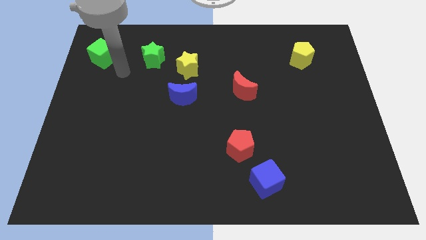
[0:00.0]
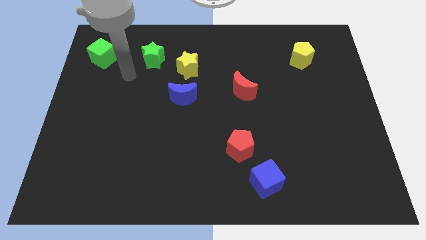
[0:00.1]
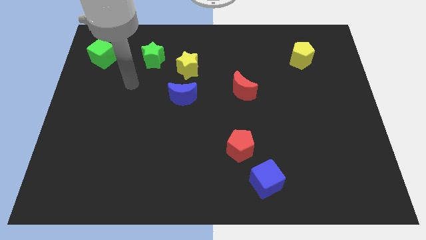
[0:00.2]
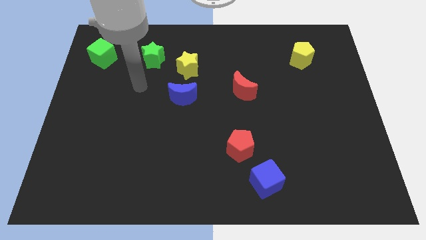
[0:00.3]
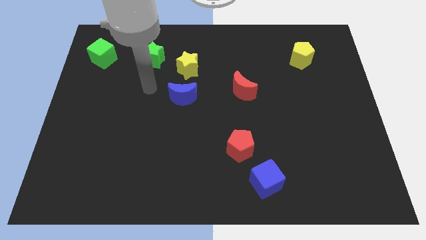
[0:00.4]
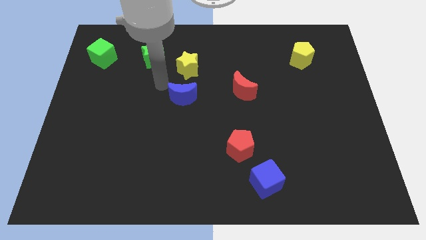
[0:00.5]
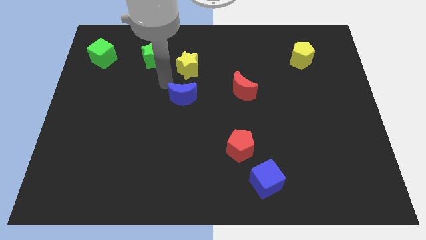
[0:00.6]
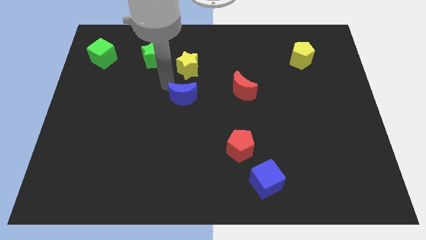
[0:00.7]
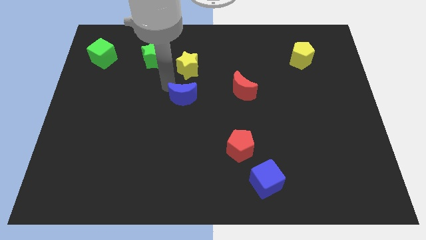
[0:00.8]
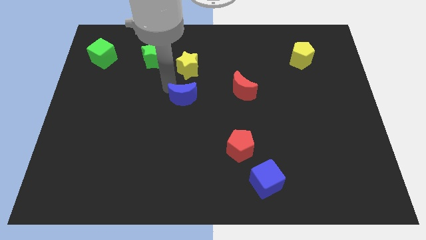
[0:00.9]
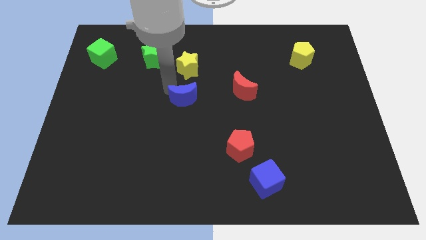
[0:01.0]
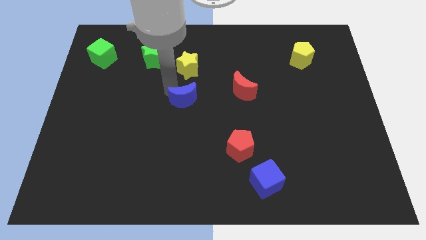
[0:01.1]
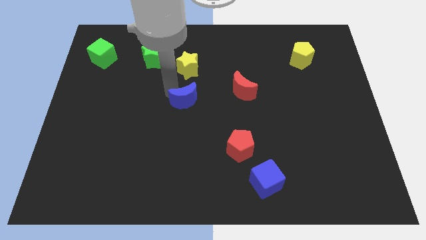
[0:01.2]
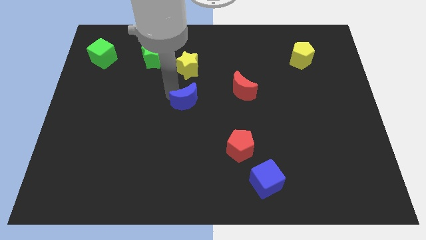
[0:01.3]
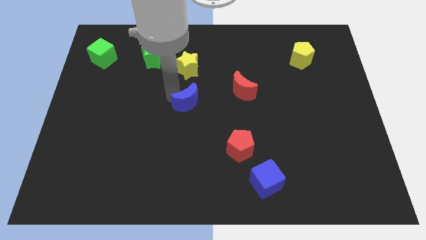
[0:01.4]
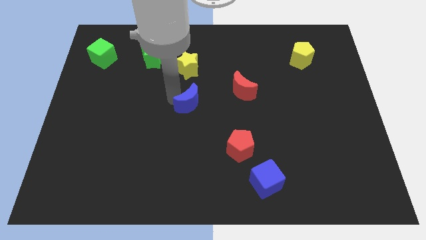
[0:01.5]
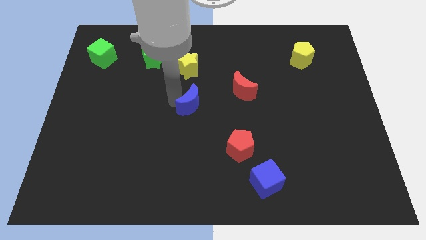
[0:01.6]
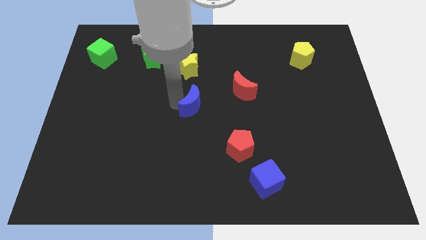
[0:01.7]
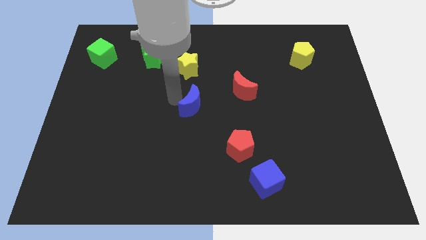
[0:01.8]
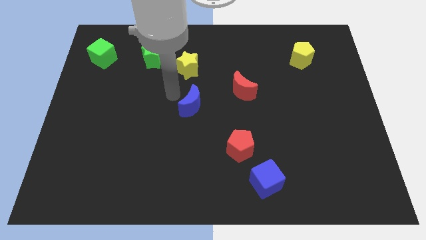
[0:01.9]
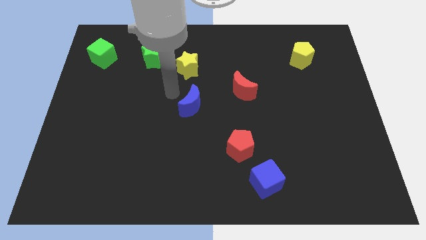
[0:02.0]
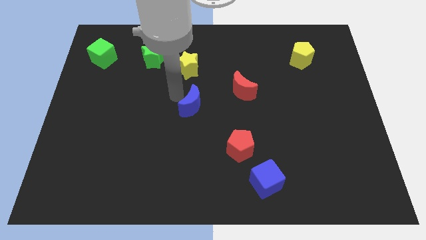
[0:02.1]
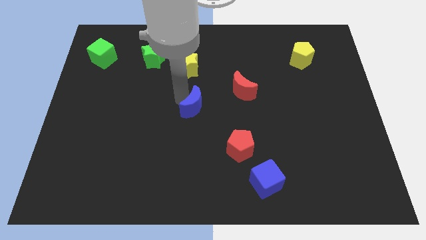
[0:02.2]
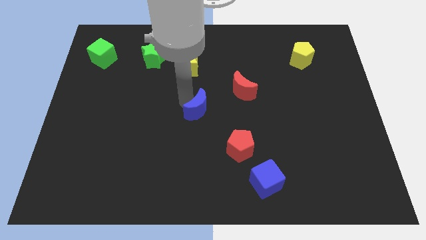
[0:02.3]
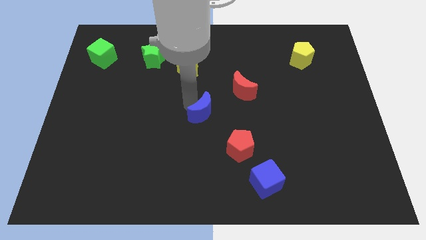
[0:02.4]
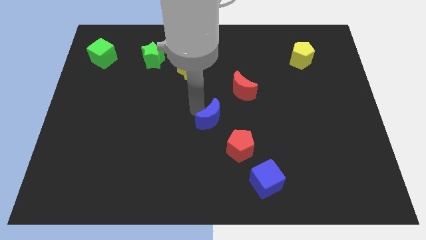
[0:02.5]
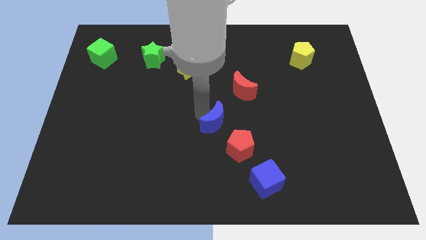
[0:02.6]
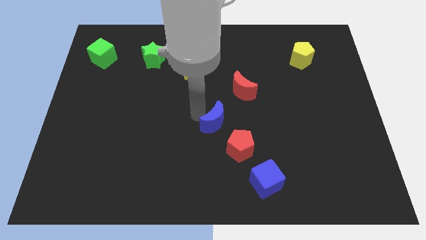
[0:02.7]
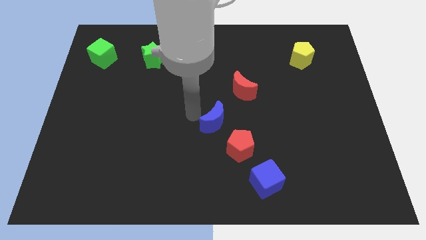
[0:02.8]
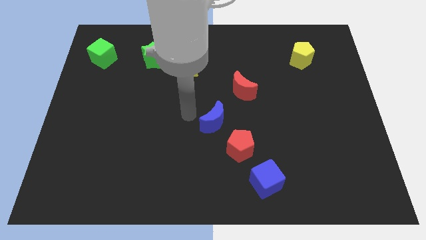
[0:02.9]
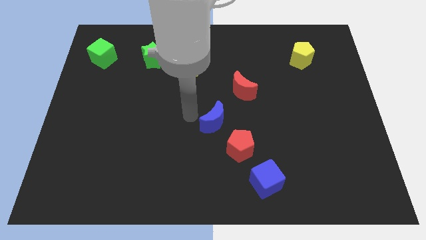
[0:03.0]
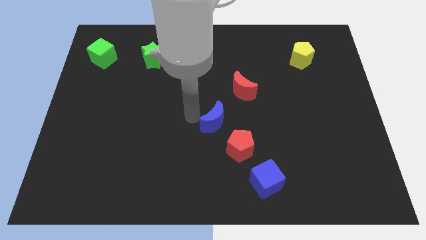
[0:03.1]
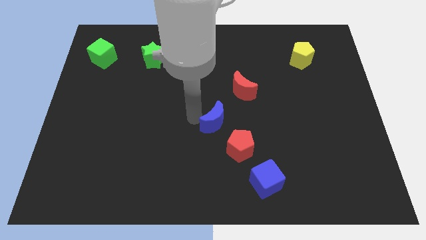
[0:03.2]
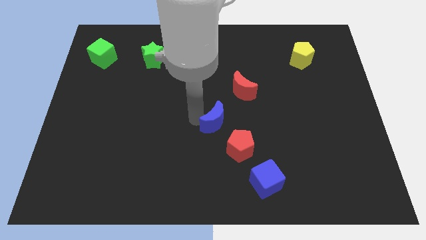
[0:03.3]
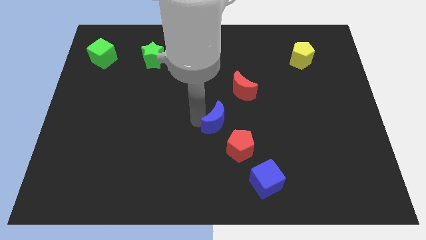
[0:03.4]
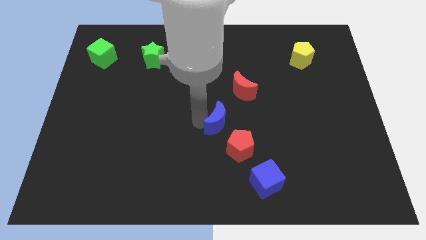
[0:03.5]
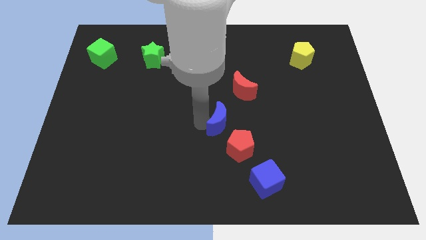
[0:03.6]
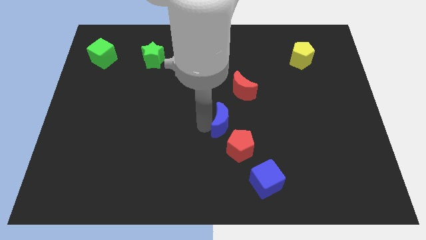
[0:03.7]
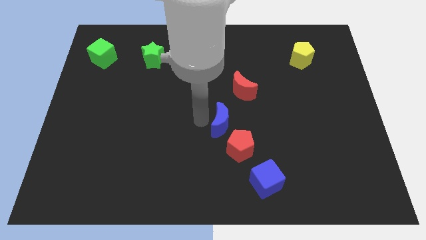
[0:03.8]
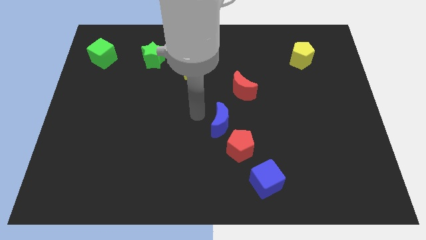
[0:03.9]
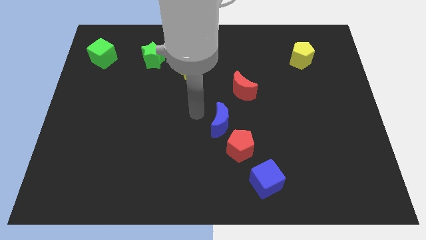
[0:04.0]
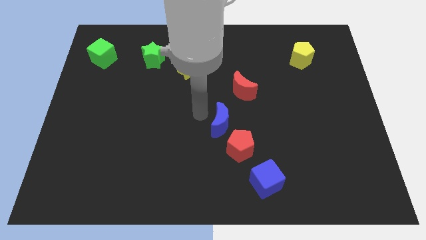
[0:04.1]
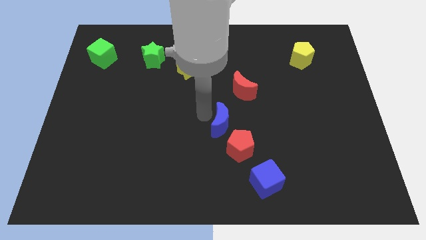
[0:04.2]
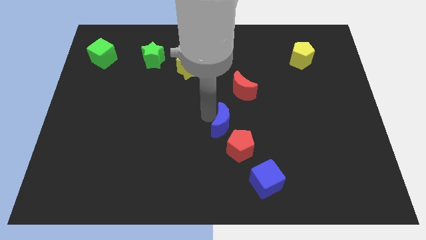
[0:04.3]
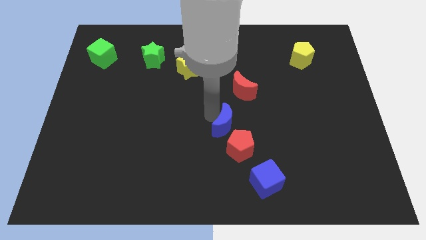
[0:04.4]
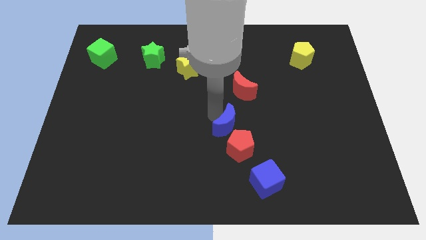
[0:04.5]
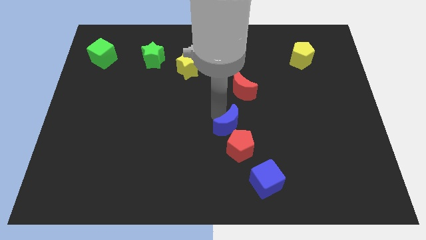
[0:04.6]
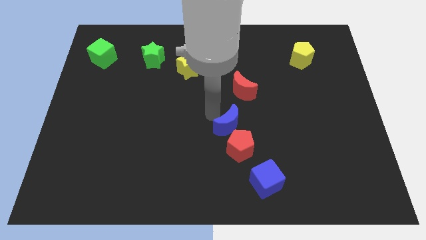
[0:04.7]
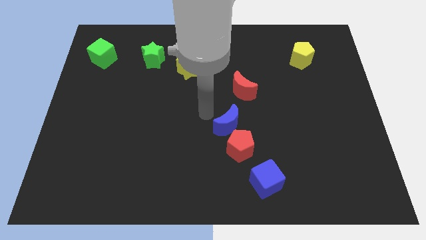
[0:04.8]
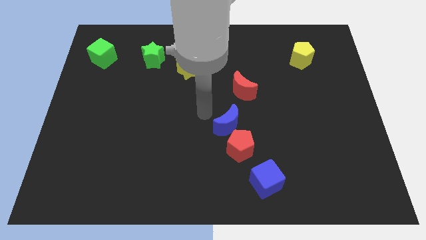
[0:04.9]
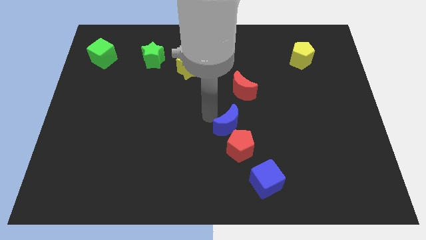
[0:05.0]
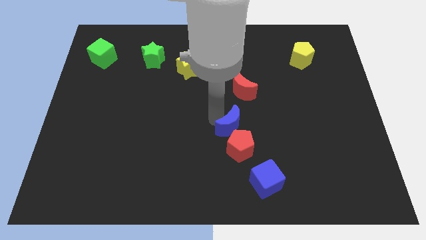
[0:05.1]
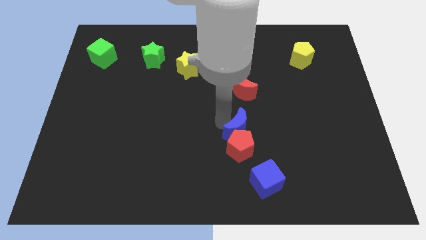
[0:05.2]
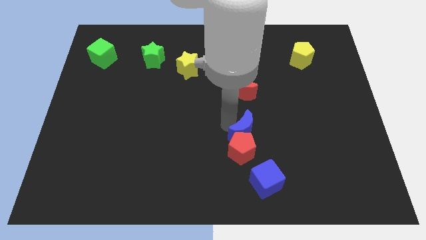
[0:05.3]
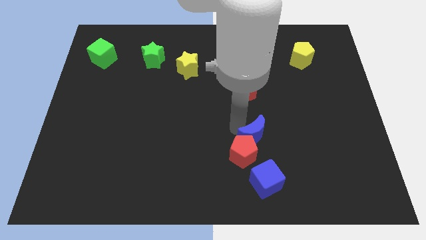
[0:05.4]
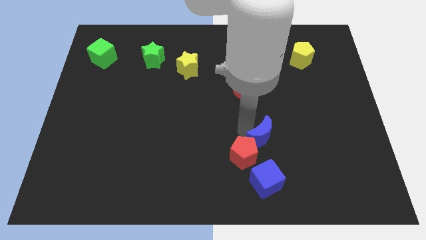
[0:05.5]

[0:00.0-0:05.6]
move the blue moon diagonally downwards and to the right

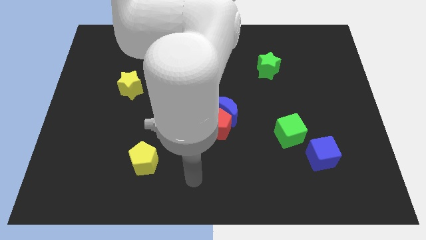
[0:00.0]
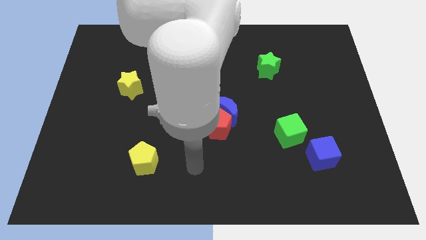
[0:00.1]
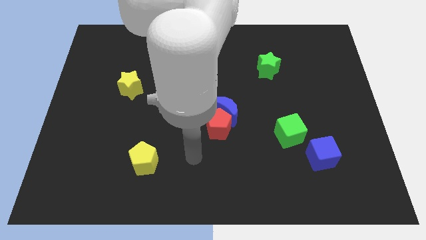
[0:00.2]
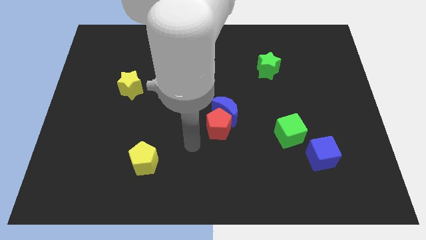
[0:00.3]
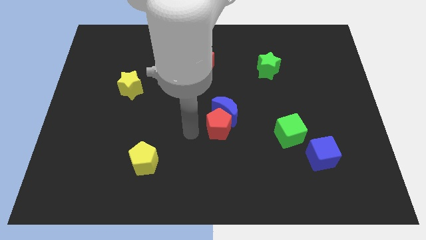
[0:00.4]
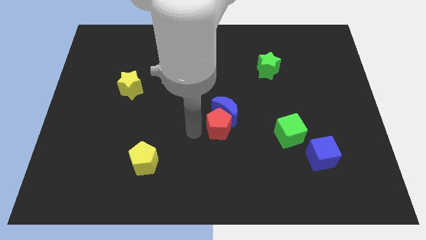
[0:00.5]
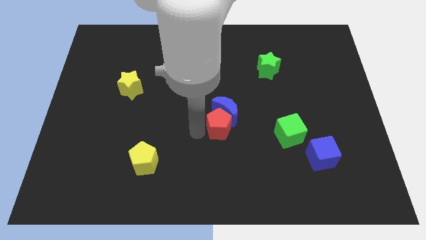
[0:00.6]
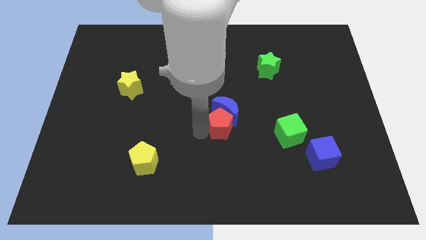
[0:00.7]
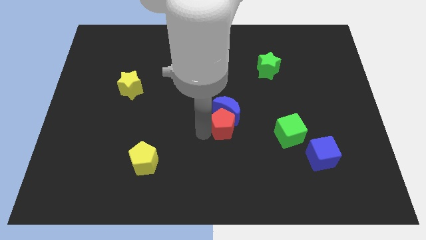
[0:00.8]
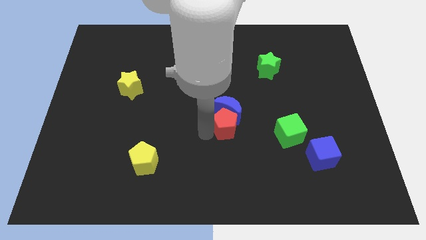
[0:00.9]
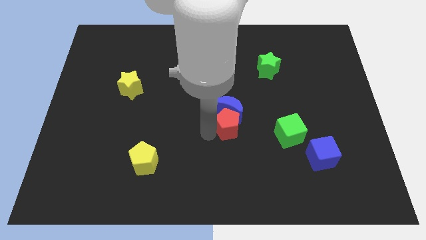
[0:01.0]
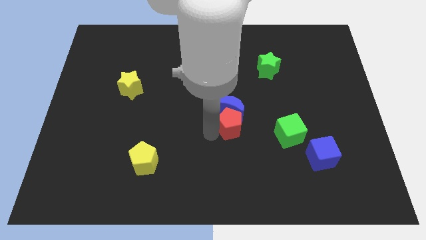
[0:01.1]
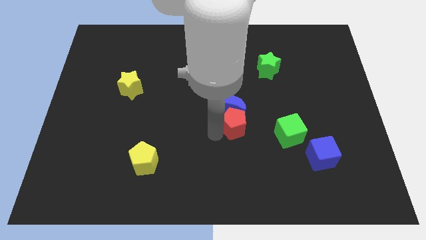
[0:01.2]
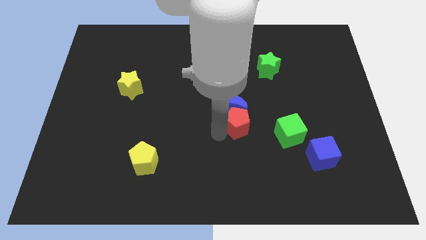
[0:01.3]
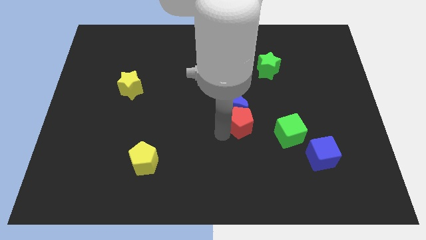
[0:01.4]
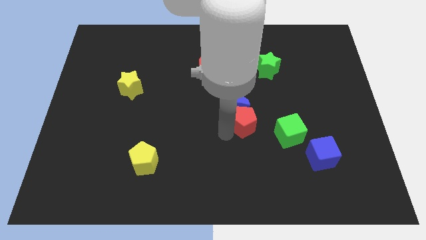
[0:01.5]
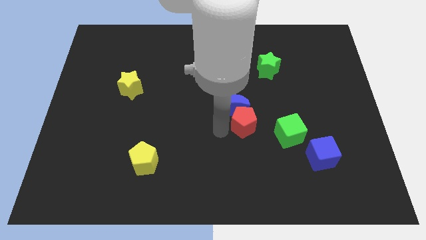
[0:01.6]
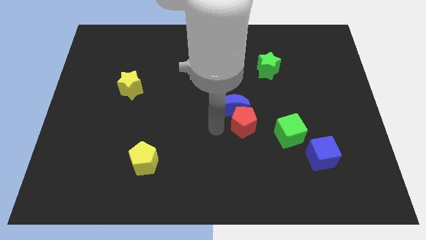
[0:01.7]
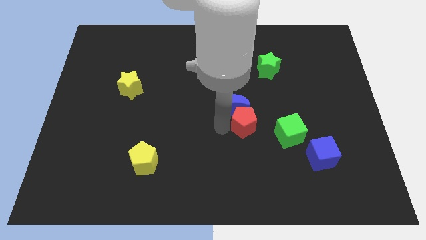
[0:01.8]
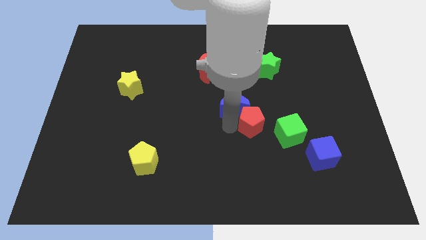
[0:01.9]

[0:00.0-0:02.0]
move the red pentagon to the right a little

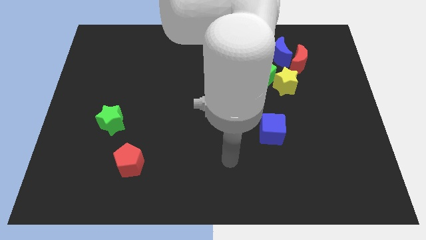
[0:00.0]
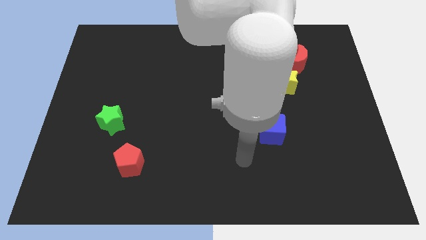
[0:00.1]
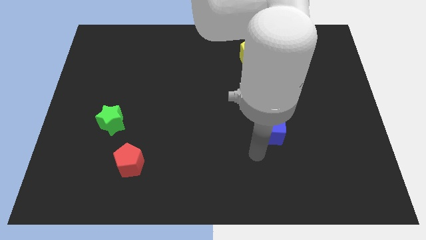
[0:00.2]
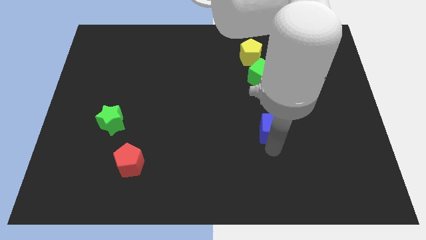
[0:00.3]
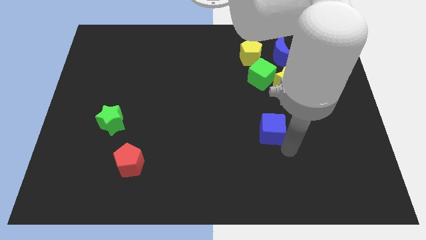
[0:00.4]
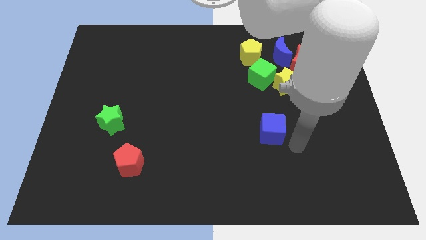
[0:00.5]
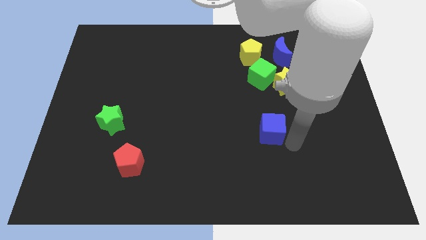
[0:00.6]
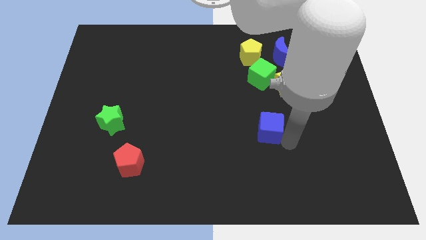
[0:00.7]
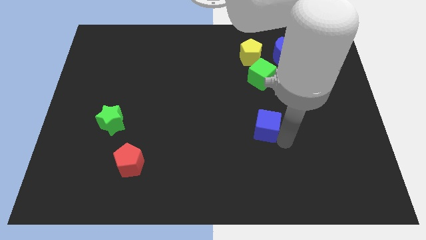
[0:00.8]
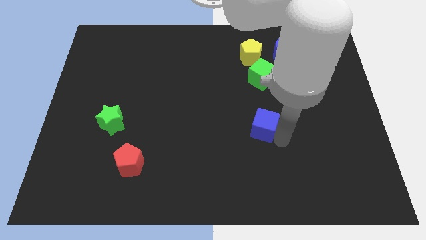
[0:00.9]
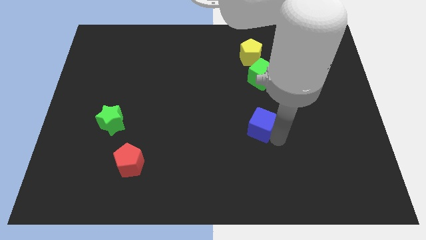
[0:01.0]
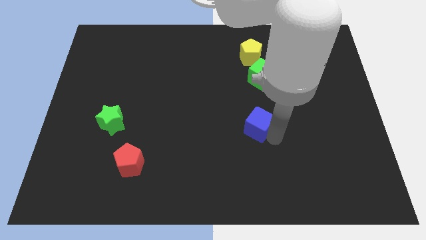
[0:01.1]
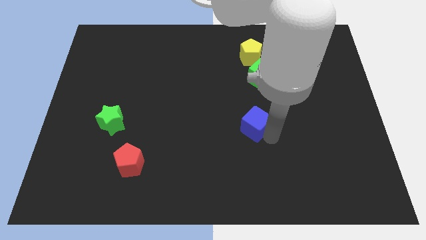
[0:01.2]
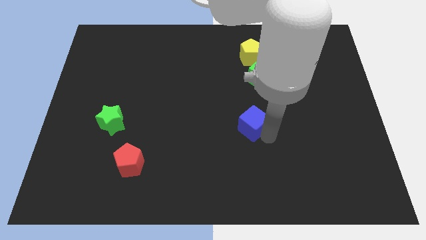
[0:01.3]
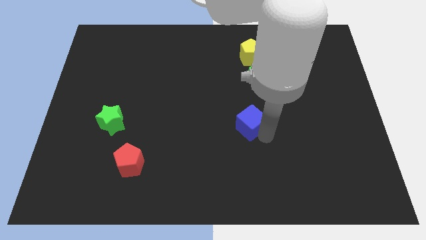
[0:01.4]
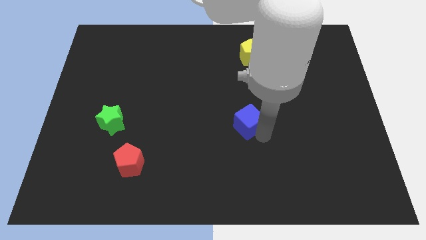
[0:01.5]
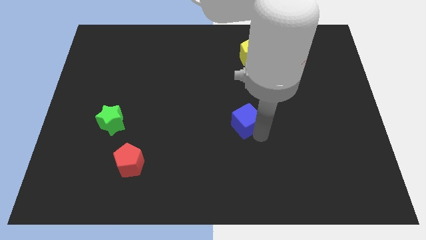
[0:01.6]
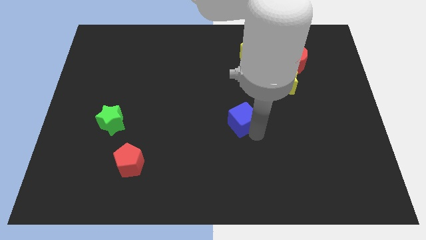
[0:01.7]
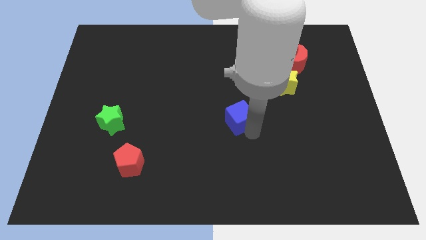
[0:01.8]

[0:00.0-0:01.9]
move the blue cube somewhat up and to the left diagonally
